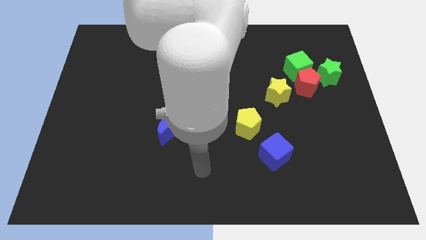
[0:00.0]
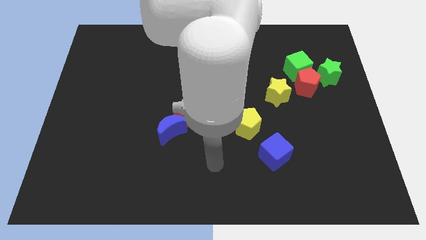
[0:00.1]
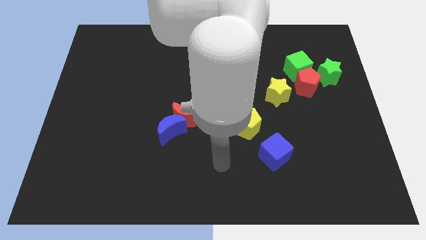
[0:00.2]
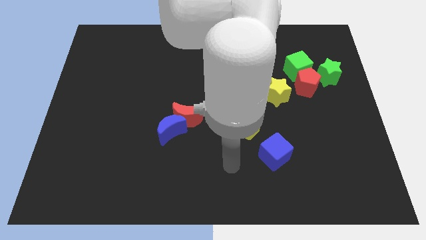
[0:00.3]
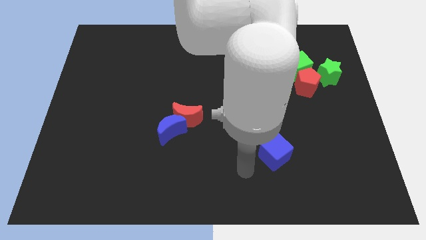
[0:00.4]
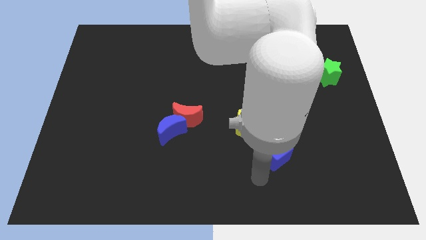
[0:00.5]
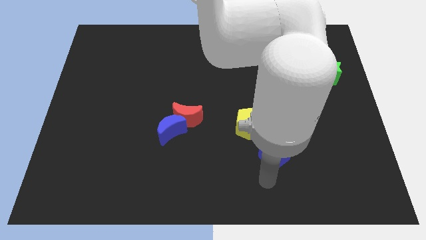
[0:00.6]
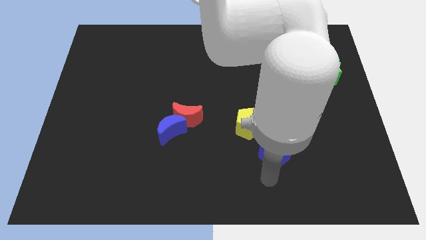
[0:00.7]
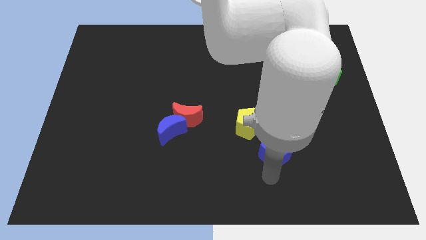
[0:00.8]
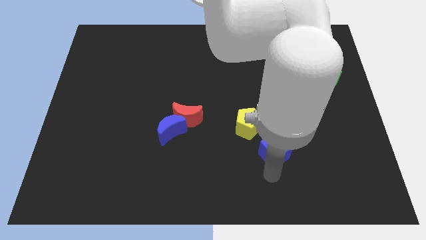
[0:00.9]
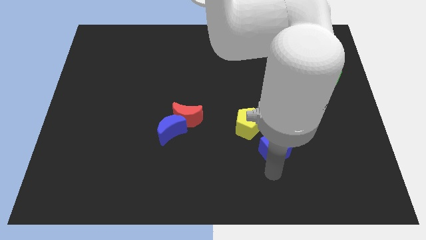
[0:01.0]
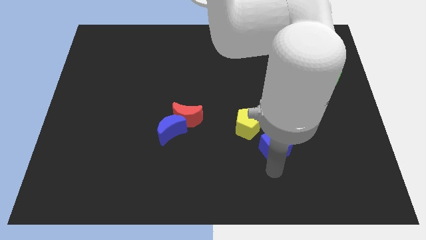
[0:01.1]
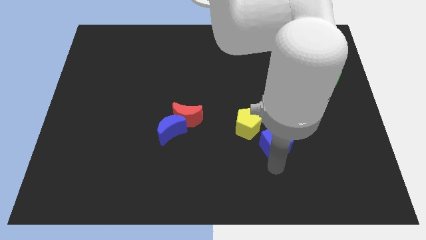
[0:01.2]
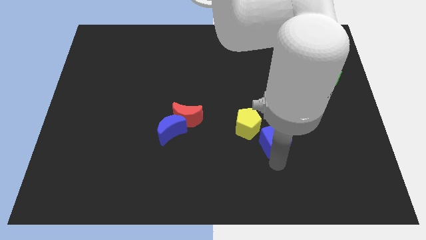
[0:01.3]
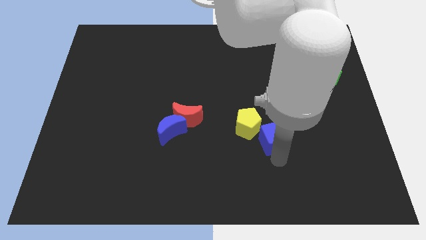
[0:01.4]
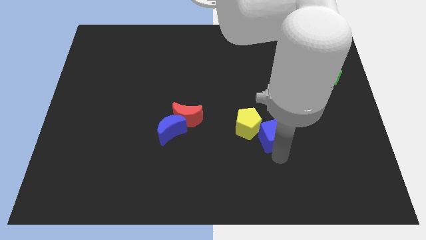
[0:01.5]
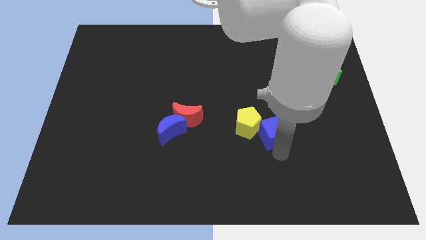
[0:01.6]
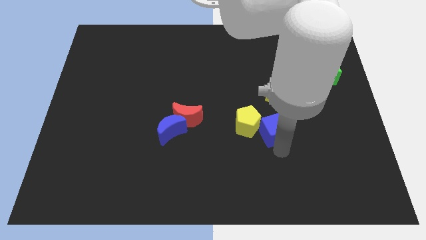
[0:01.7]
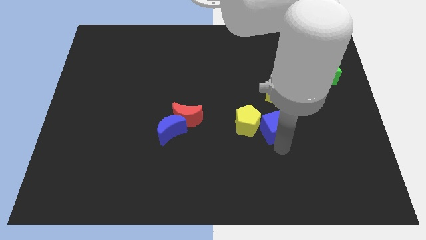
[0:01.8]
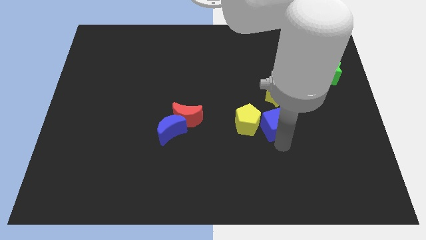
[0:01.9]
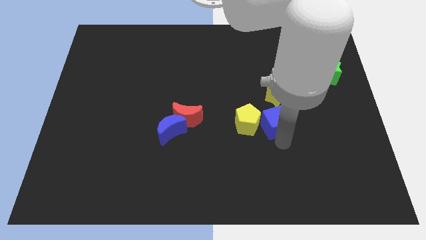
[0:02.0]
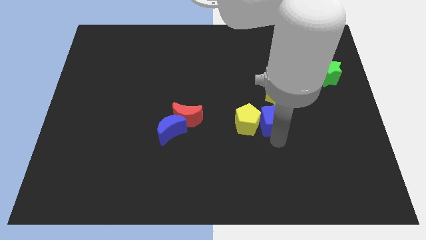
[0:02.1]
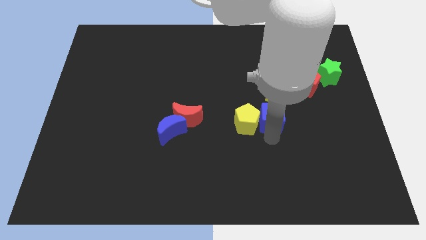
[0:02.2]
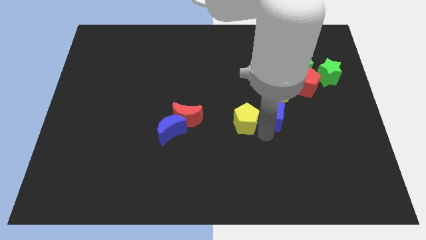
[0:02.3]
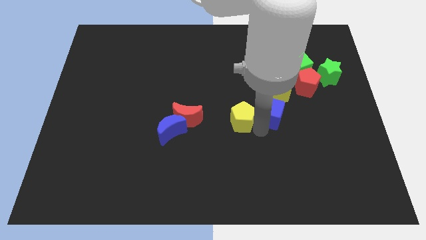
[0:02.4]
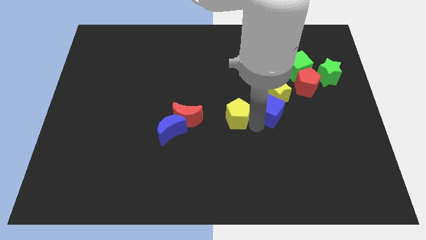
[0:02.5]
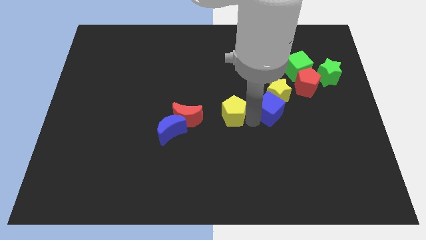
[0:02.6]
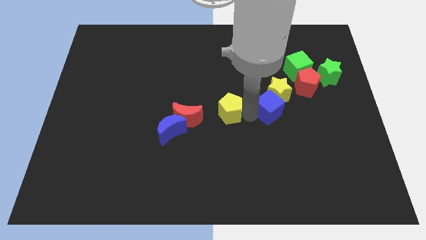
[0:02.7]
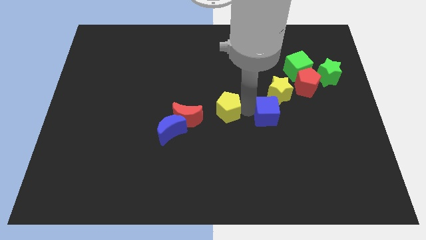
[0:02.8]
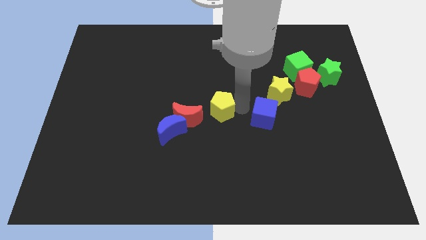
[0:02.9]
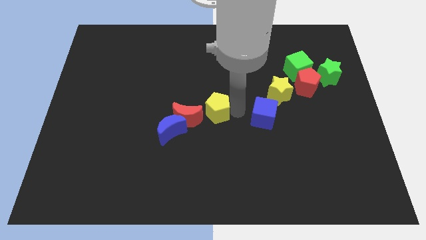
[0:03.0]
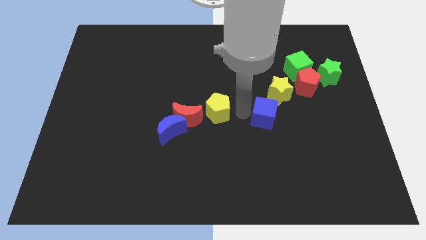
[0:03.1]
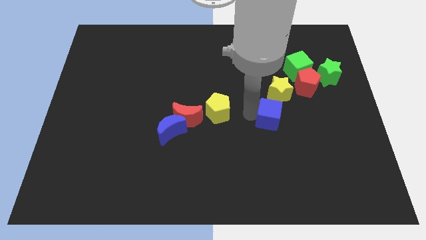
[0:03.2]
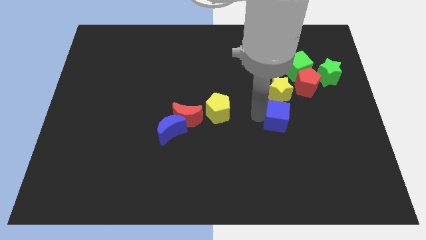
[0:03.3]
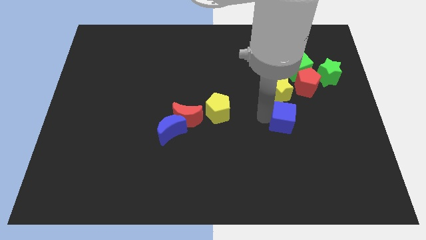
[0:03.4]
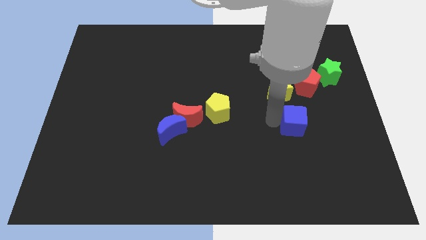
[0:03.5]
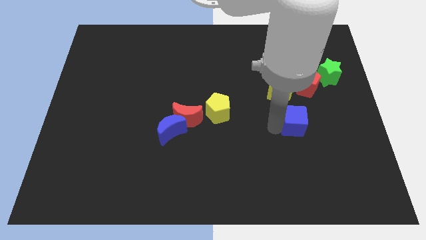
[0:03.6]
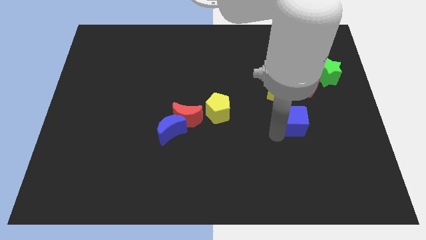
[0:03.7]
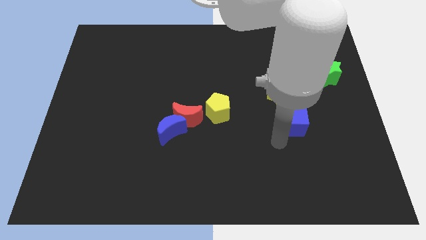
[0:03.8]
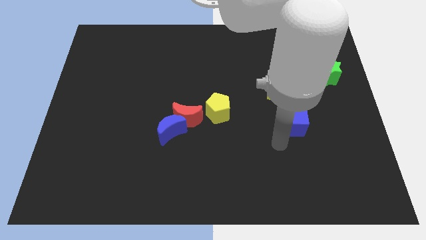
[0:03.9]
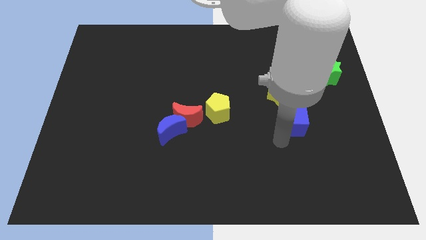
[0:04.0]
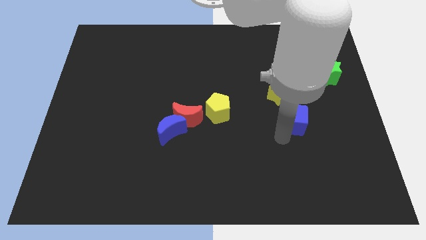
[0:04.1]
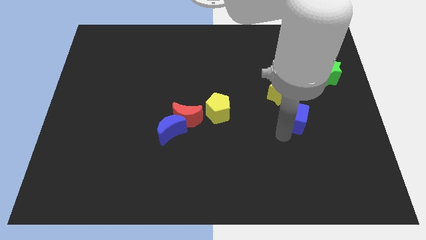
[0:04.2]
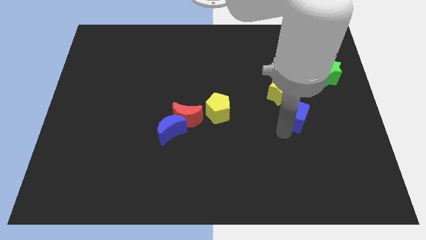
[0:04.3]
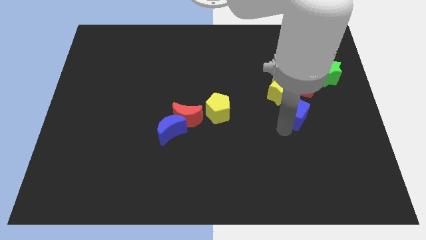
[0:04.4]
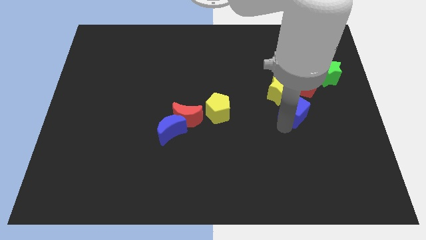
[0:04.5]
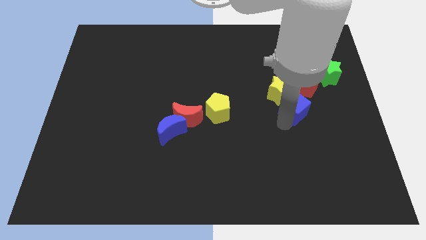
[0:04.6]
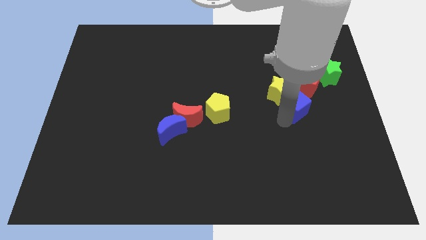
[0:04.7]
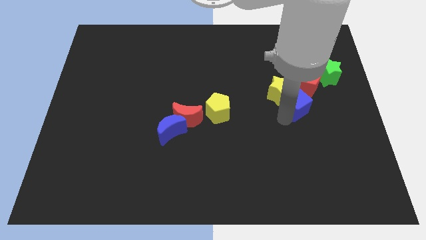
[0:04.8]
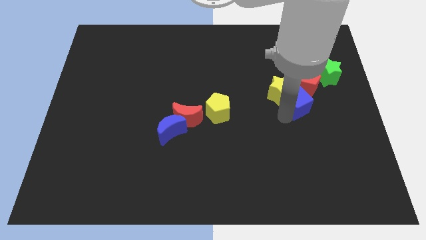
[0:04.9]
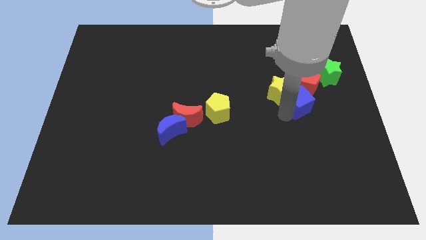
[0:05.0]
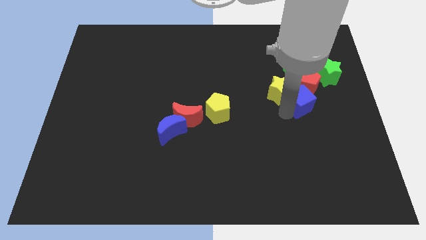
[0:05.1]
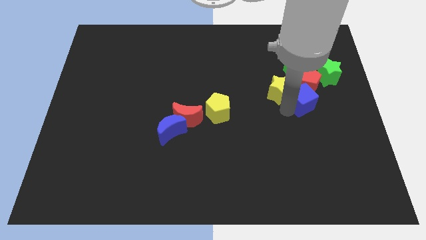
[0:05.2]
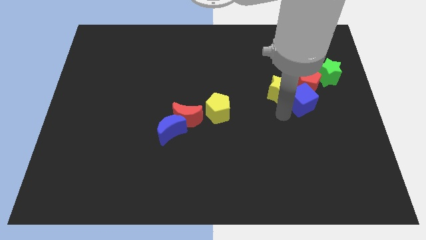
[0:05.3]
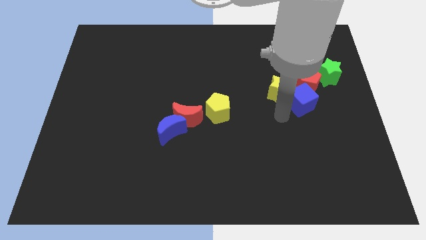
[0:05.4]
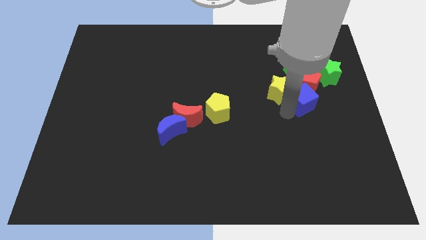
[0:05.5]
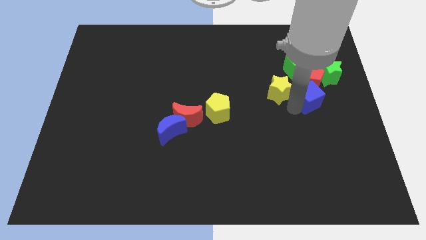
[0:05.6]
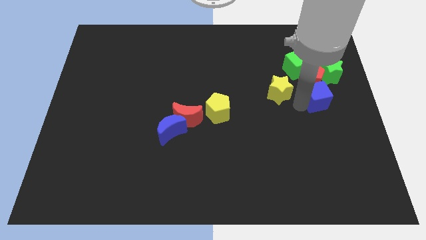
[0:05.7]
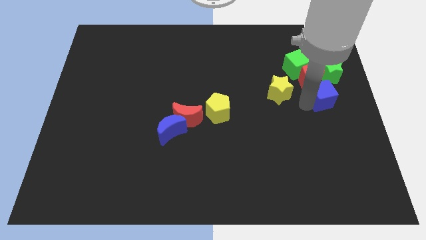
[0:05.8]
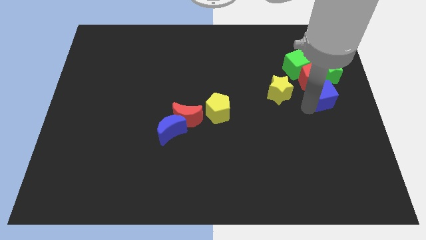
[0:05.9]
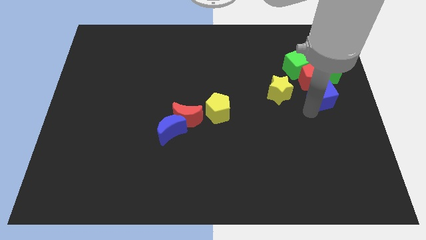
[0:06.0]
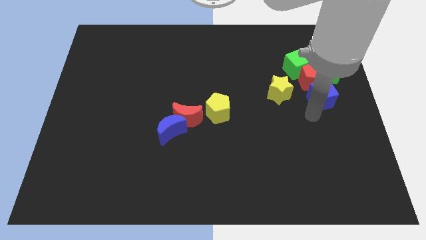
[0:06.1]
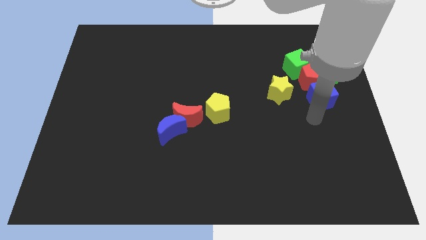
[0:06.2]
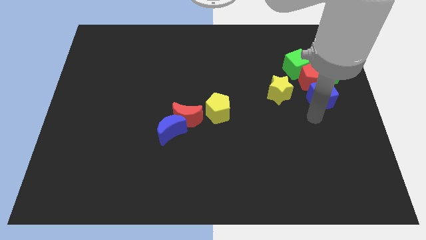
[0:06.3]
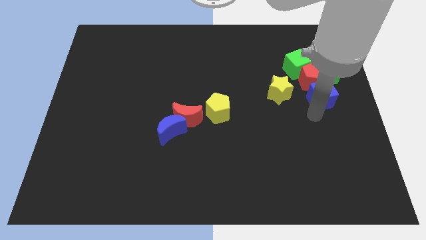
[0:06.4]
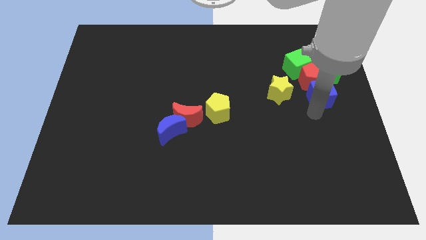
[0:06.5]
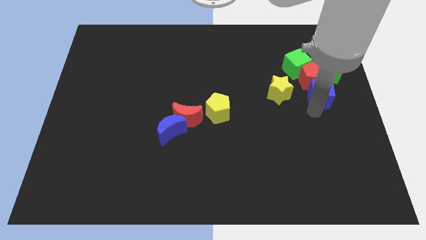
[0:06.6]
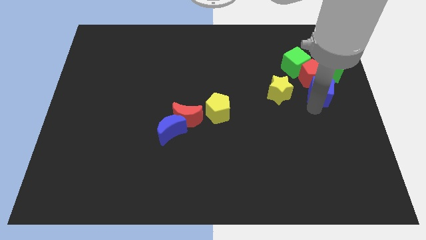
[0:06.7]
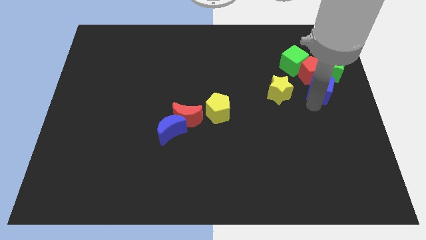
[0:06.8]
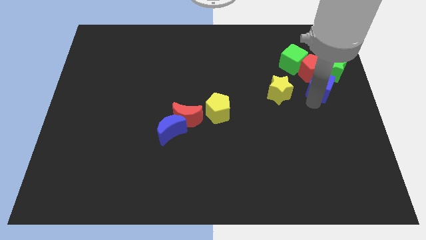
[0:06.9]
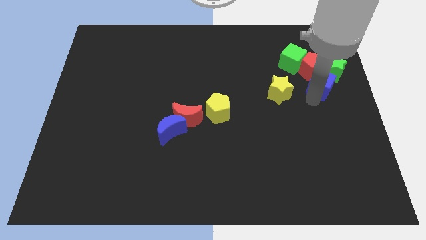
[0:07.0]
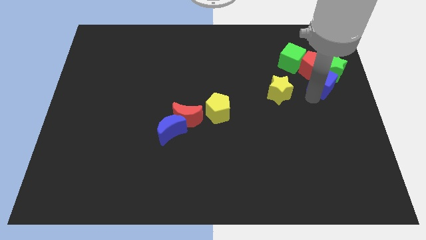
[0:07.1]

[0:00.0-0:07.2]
push the blue cube close to the green star

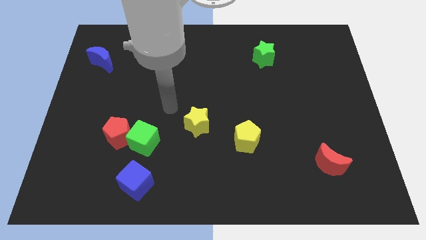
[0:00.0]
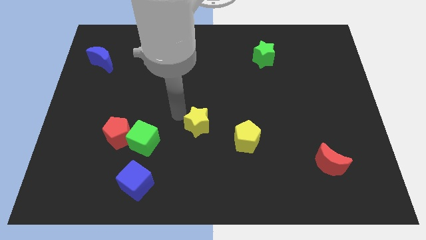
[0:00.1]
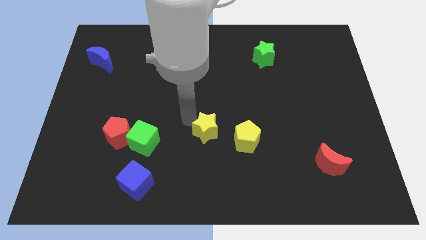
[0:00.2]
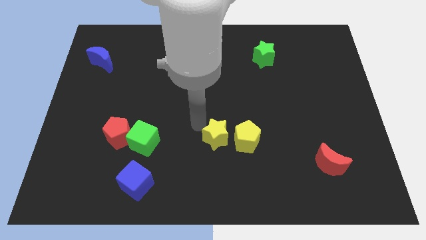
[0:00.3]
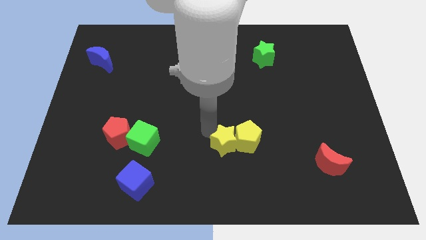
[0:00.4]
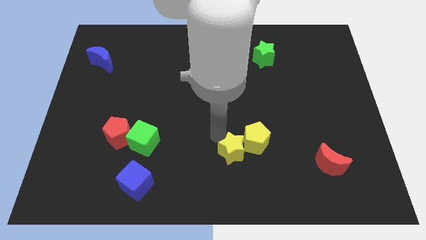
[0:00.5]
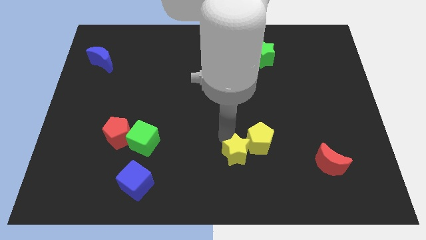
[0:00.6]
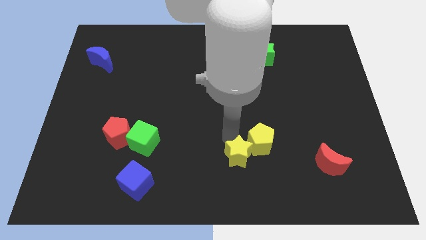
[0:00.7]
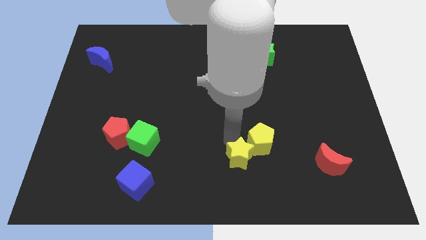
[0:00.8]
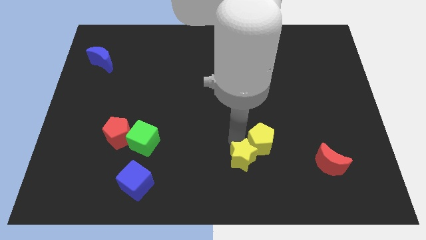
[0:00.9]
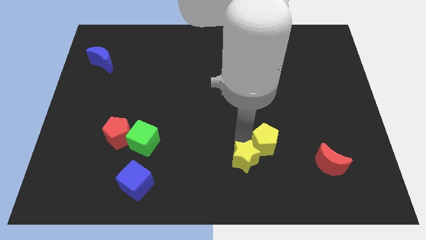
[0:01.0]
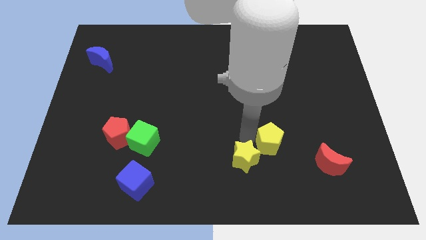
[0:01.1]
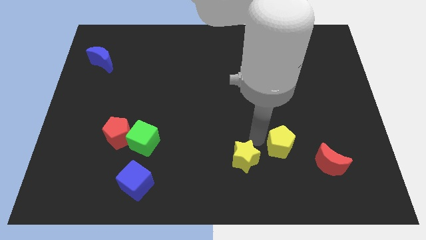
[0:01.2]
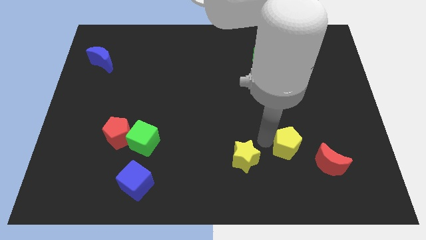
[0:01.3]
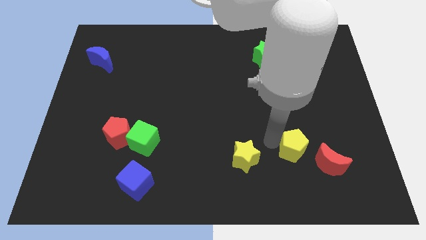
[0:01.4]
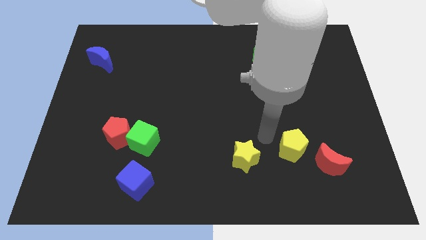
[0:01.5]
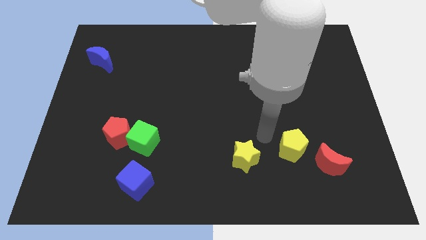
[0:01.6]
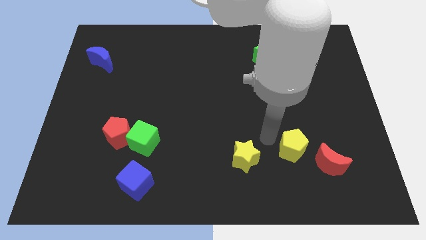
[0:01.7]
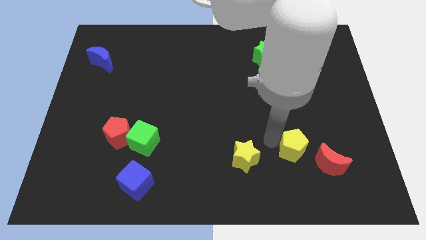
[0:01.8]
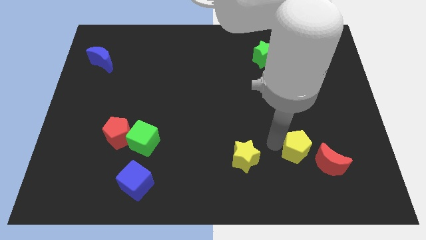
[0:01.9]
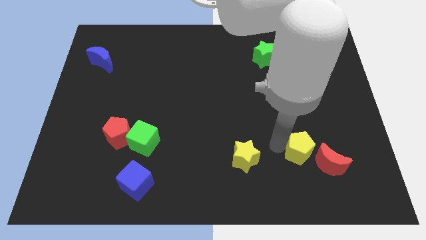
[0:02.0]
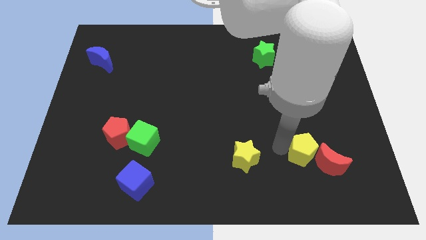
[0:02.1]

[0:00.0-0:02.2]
push the yellow pentagon next to the red moon
